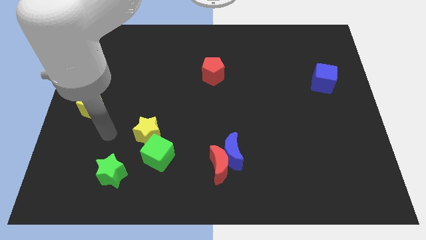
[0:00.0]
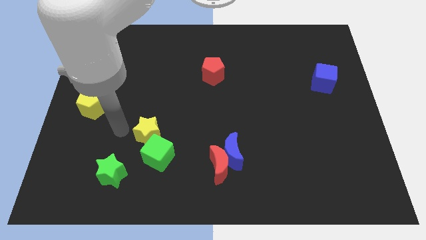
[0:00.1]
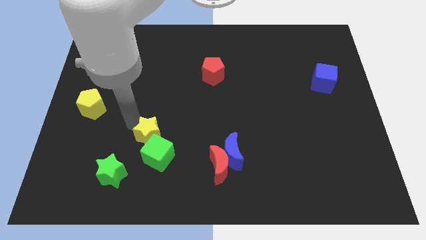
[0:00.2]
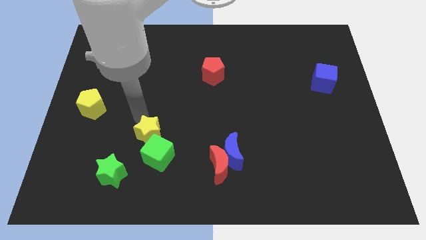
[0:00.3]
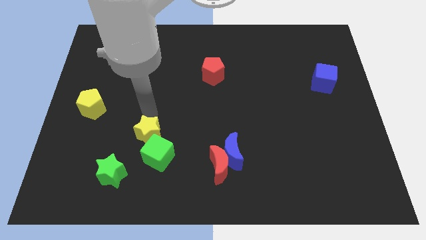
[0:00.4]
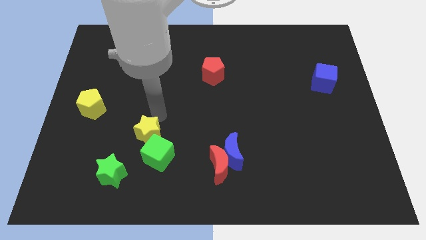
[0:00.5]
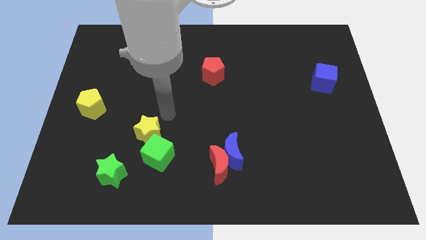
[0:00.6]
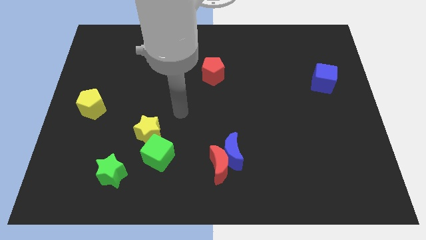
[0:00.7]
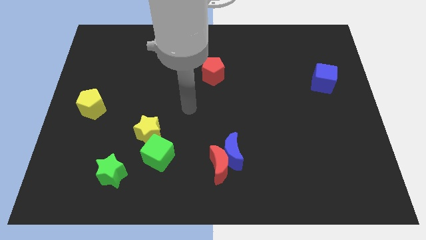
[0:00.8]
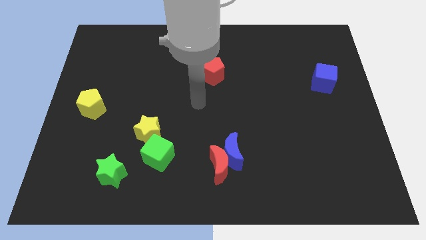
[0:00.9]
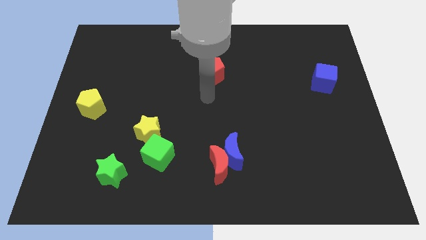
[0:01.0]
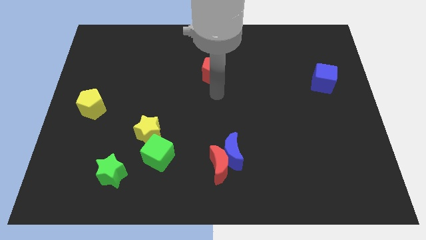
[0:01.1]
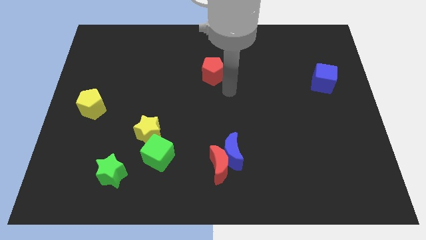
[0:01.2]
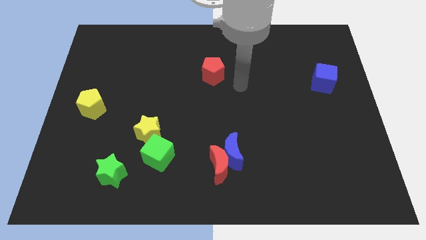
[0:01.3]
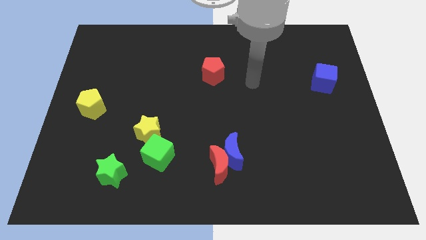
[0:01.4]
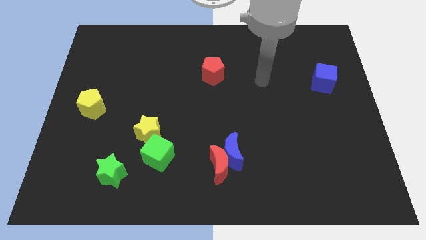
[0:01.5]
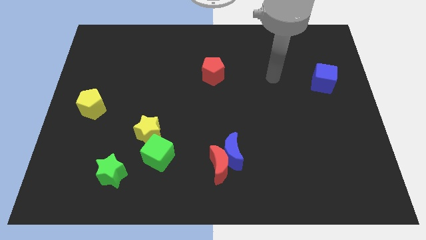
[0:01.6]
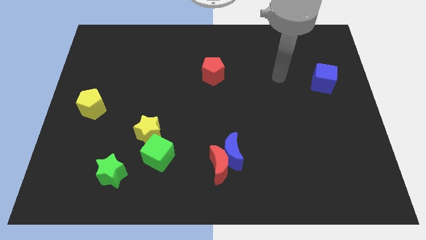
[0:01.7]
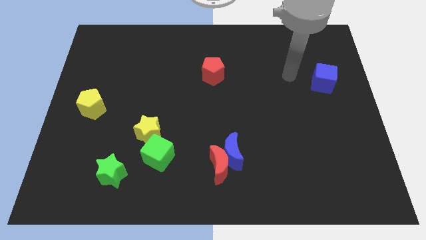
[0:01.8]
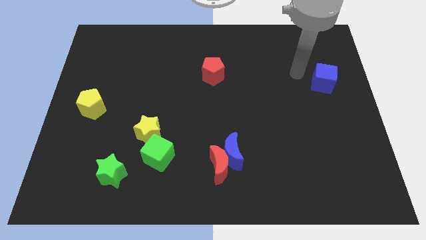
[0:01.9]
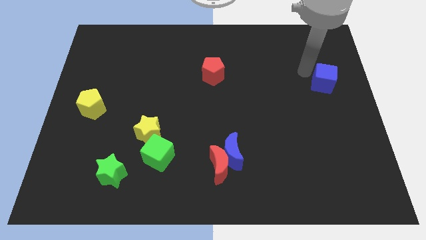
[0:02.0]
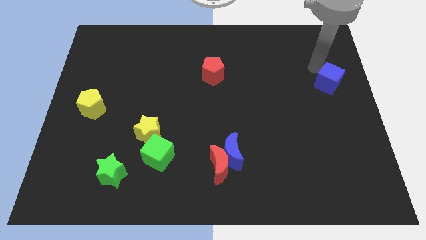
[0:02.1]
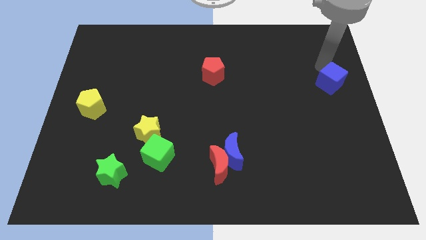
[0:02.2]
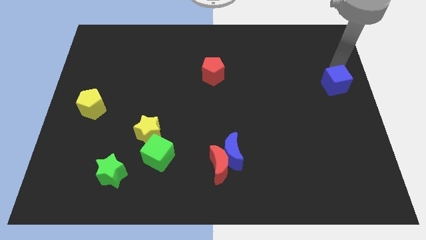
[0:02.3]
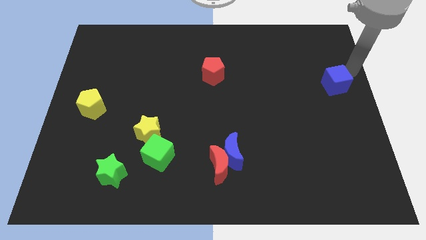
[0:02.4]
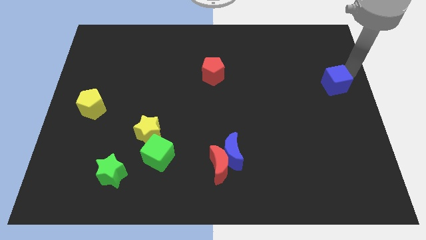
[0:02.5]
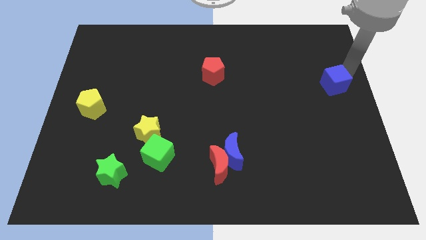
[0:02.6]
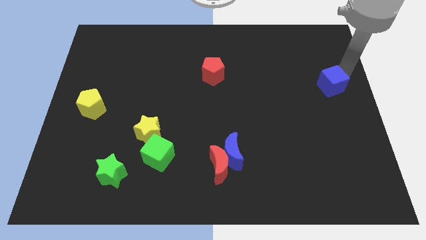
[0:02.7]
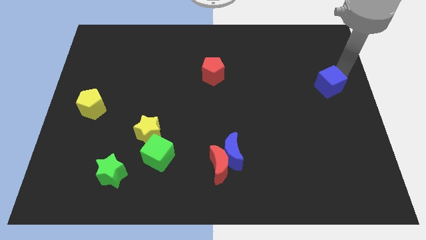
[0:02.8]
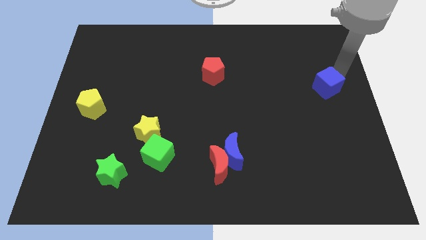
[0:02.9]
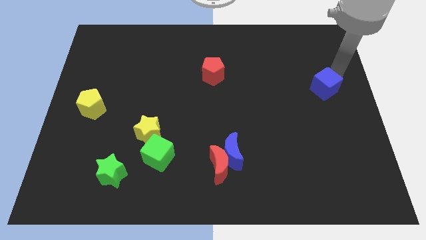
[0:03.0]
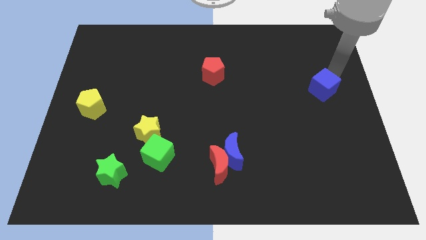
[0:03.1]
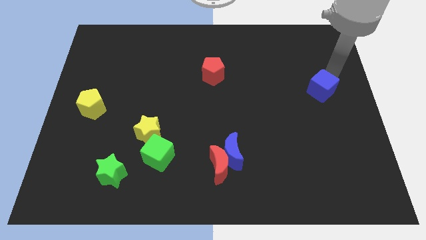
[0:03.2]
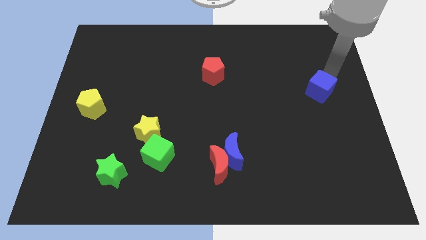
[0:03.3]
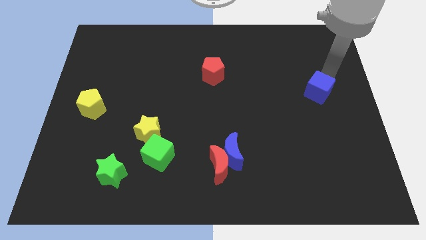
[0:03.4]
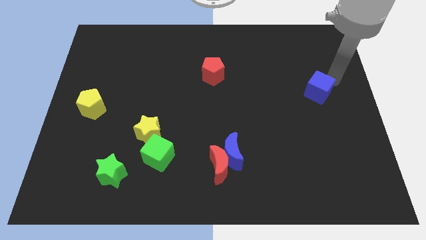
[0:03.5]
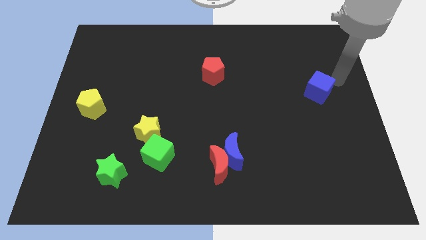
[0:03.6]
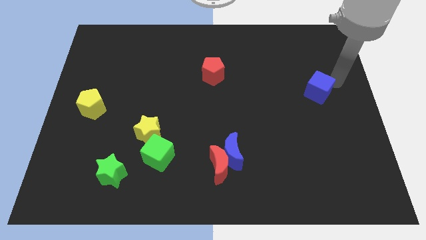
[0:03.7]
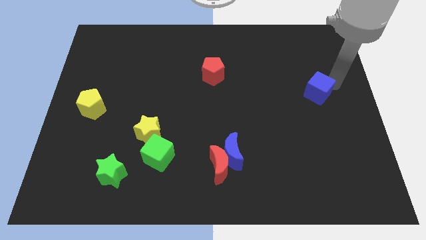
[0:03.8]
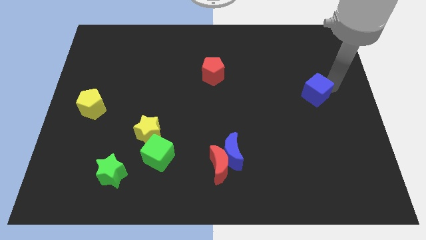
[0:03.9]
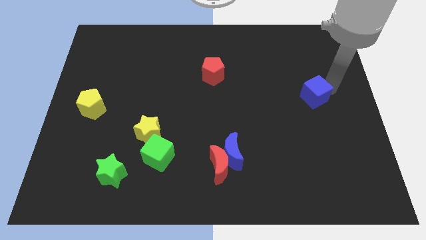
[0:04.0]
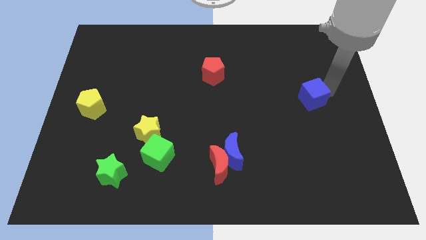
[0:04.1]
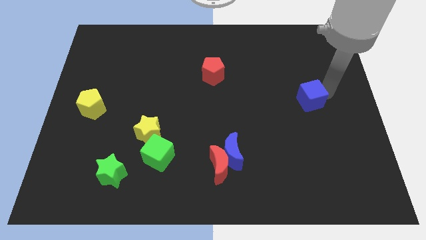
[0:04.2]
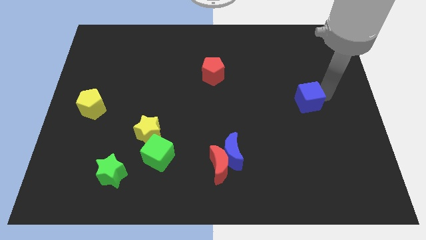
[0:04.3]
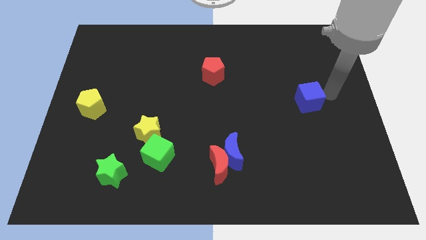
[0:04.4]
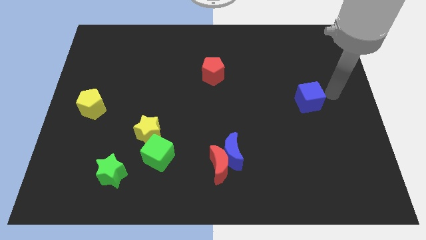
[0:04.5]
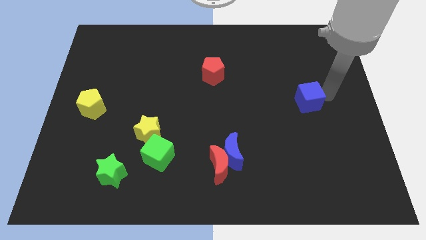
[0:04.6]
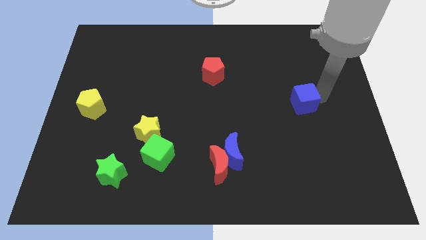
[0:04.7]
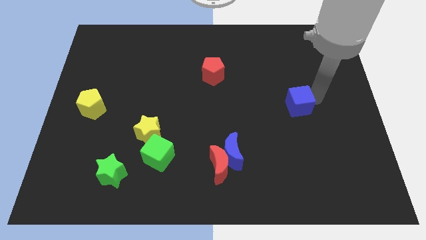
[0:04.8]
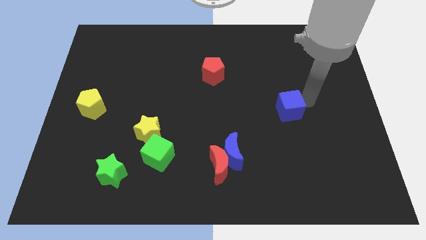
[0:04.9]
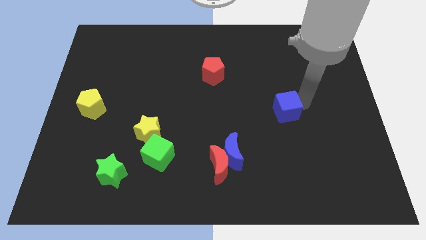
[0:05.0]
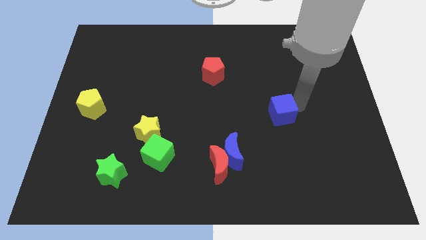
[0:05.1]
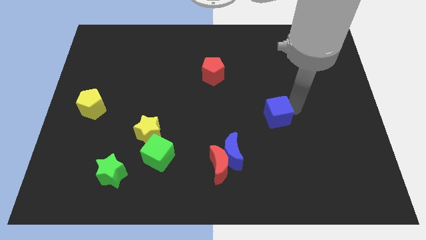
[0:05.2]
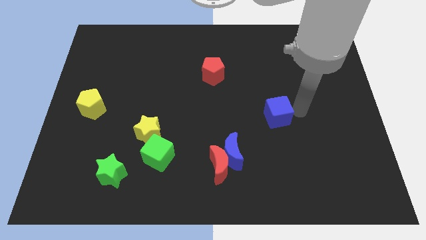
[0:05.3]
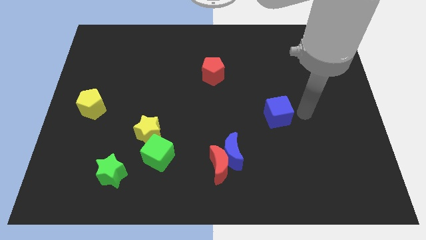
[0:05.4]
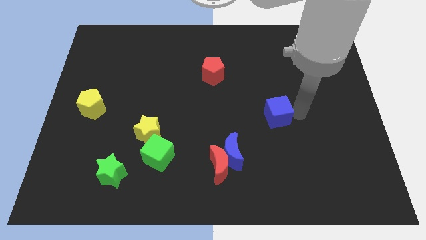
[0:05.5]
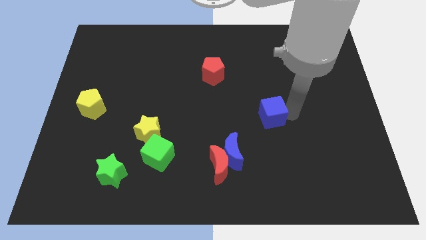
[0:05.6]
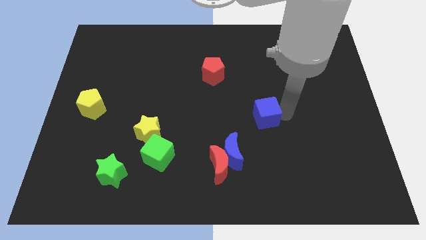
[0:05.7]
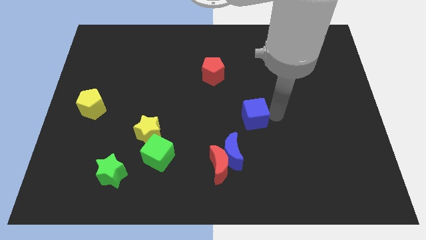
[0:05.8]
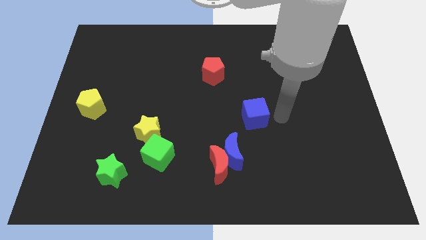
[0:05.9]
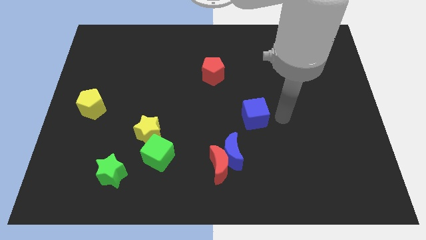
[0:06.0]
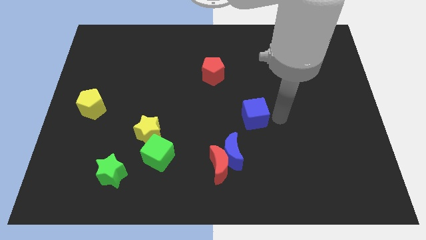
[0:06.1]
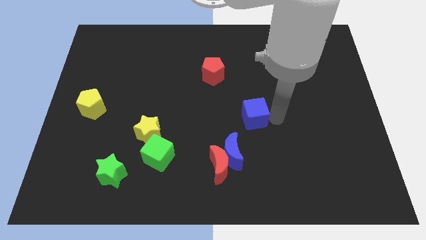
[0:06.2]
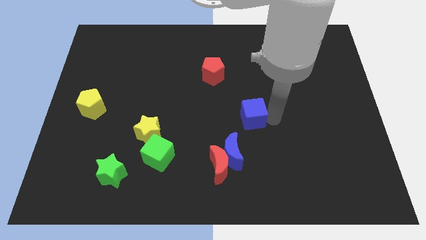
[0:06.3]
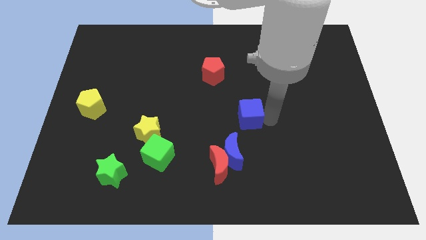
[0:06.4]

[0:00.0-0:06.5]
push the blue cube above the blue moon

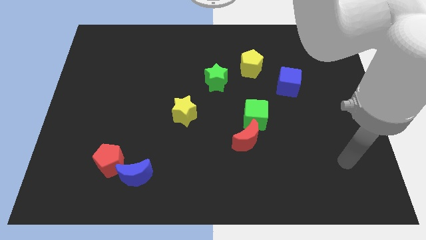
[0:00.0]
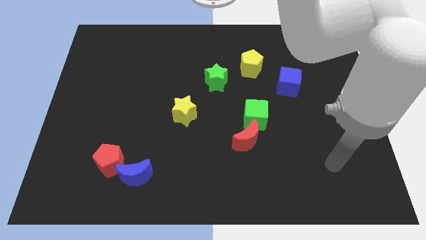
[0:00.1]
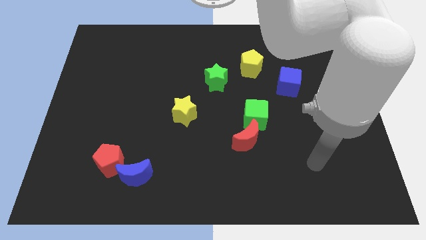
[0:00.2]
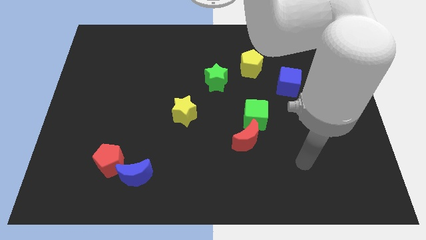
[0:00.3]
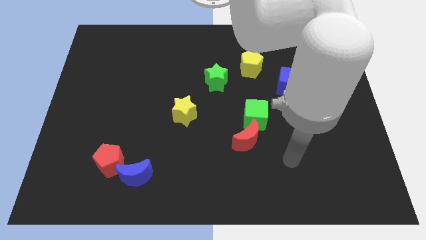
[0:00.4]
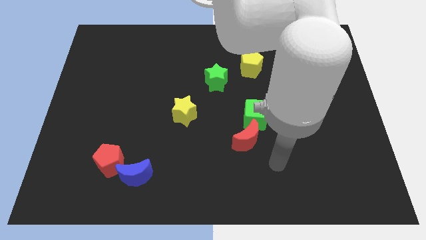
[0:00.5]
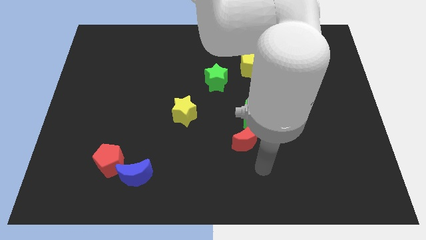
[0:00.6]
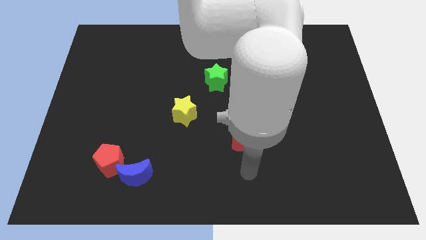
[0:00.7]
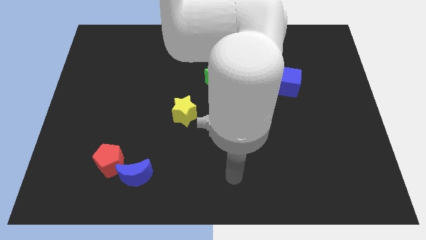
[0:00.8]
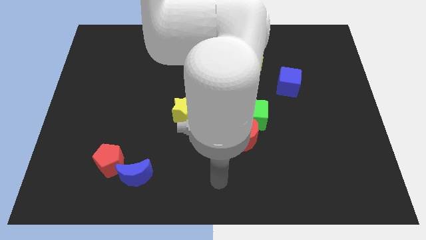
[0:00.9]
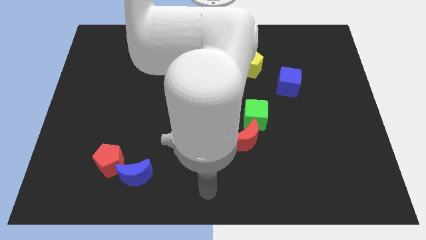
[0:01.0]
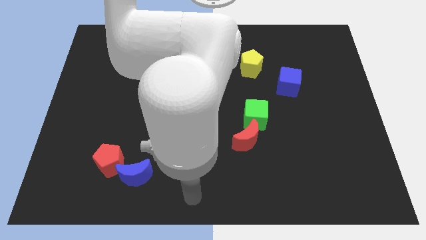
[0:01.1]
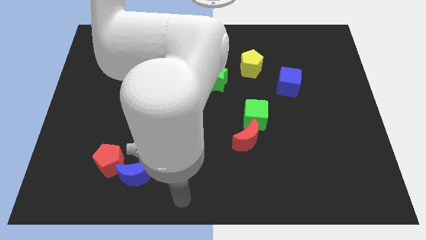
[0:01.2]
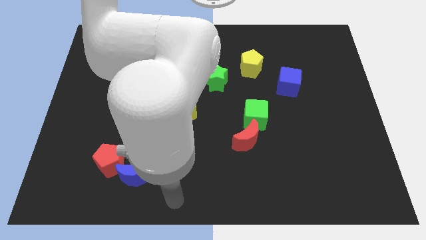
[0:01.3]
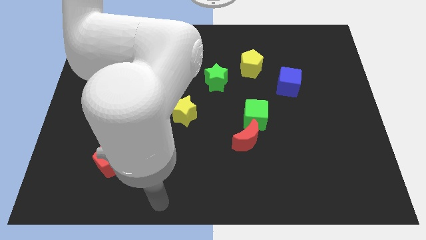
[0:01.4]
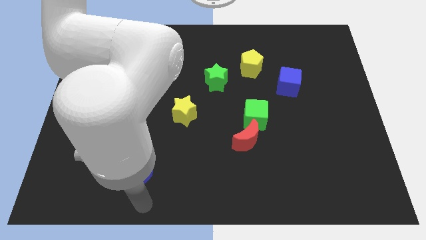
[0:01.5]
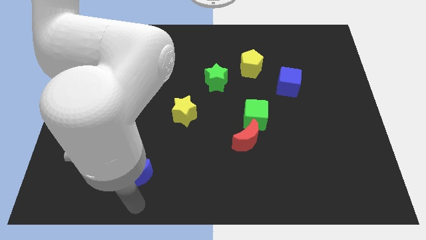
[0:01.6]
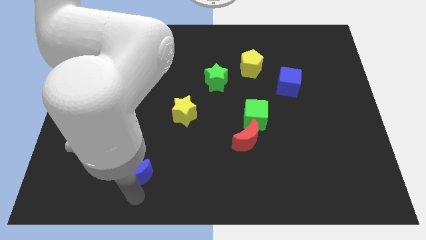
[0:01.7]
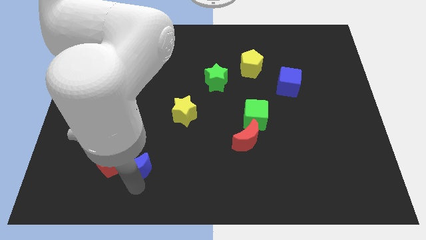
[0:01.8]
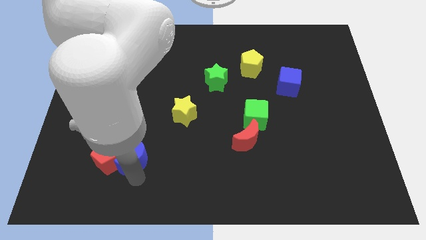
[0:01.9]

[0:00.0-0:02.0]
slide the blue moon to the top right side of the red pentagon
